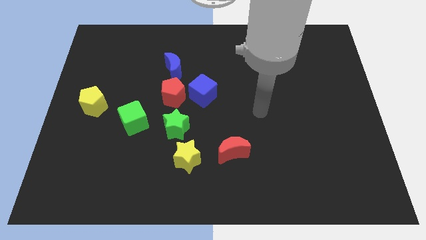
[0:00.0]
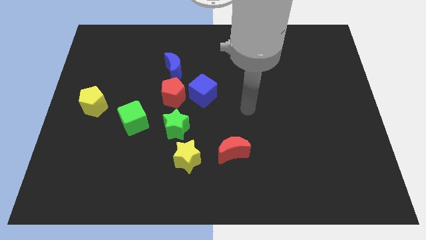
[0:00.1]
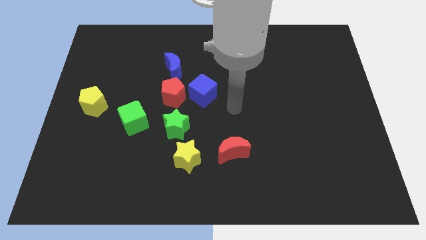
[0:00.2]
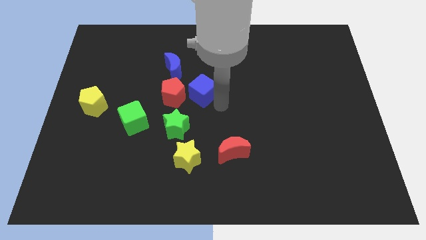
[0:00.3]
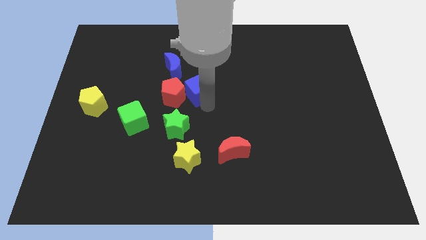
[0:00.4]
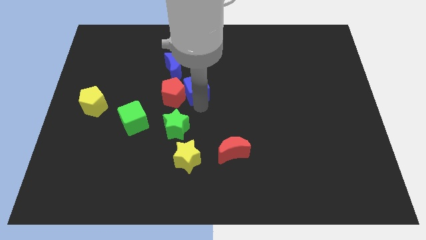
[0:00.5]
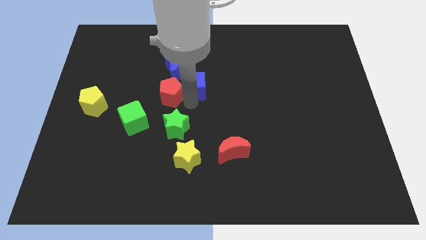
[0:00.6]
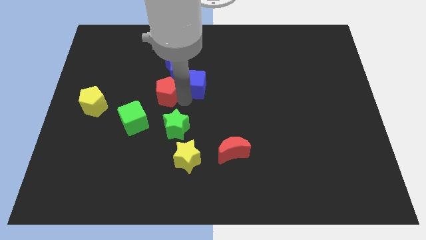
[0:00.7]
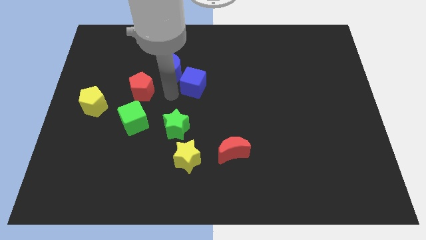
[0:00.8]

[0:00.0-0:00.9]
pull the blue cube apart from the red pentagon

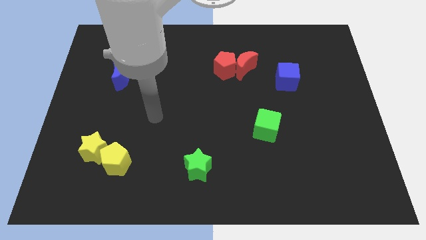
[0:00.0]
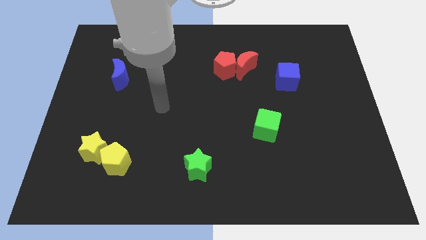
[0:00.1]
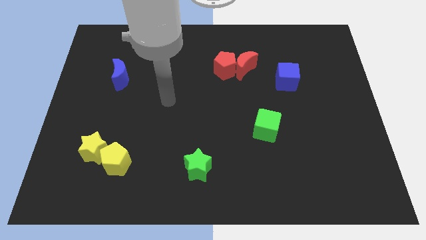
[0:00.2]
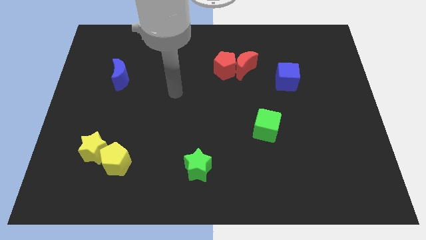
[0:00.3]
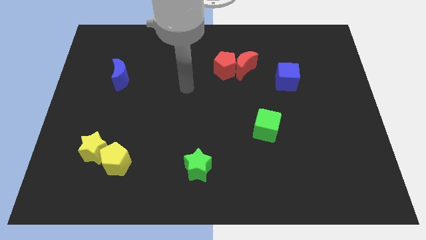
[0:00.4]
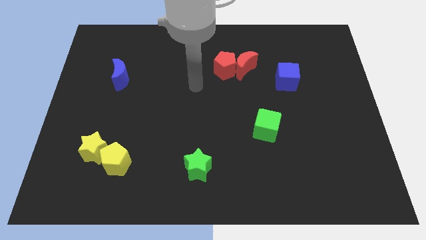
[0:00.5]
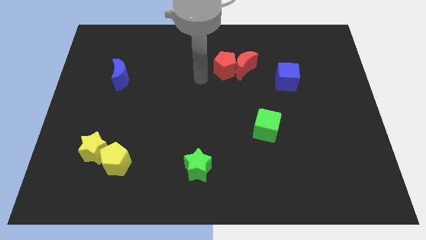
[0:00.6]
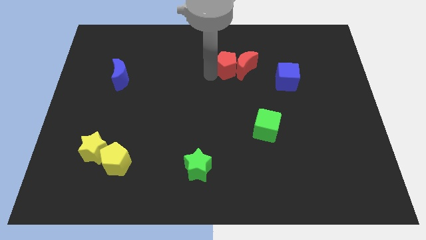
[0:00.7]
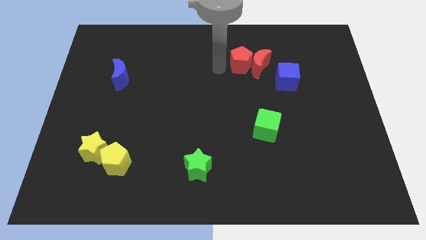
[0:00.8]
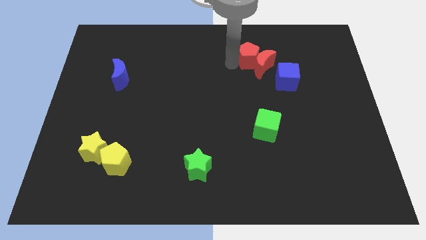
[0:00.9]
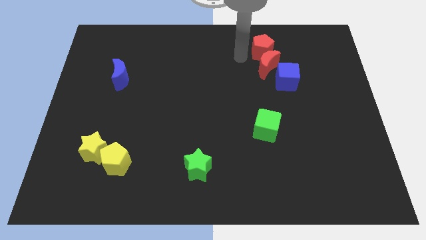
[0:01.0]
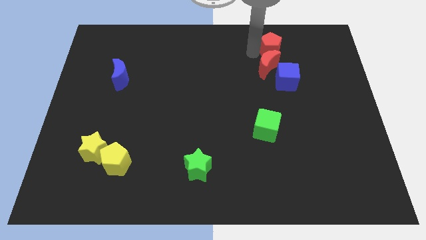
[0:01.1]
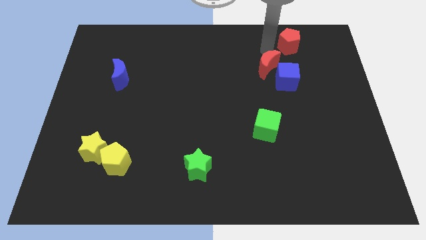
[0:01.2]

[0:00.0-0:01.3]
separate the red moon from the red pentagon

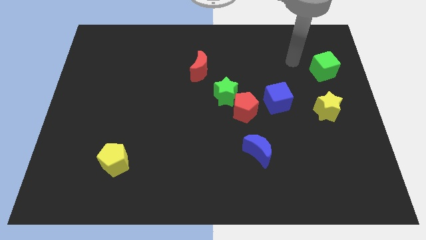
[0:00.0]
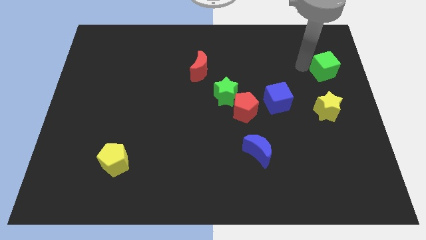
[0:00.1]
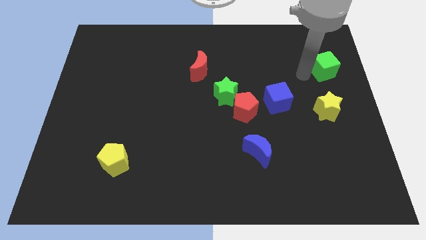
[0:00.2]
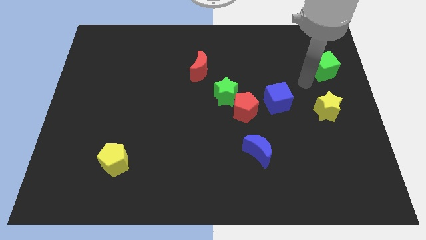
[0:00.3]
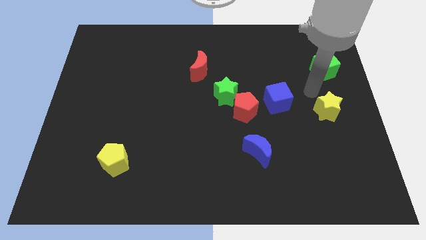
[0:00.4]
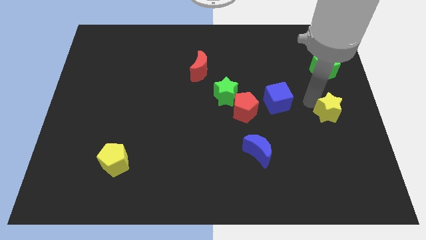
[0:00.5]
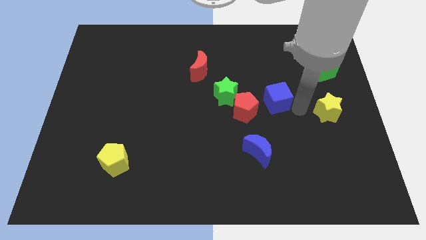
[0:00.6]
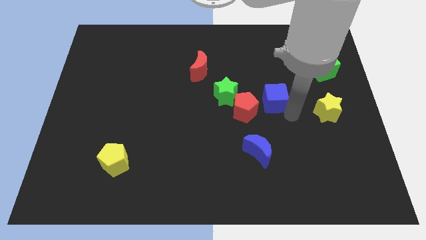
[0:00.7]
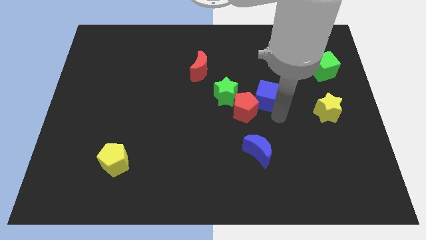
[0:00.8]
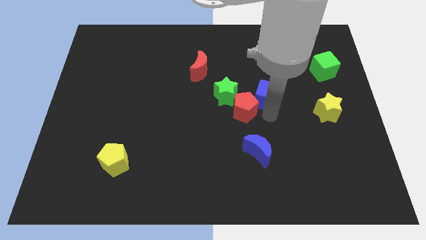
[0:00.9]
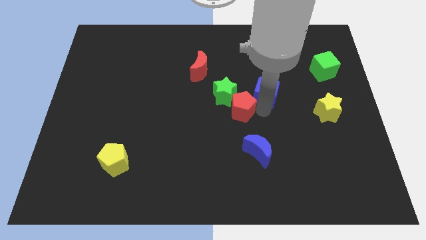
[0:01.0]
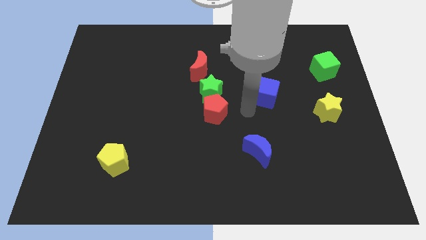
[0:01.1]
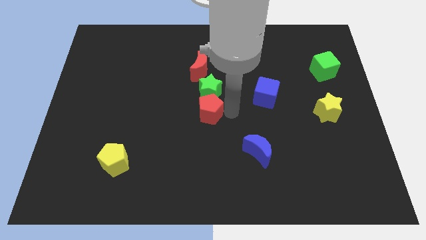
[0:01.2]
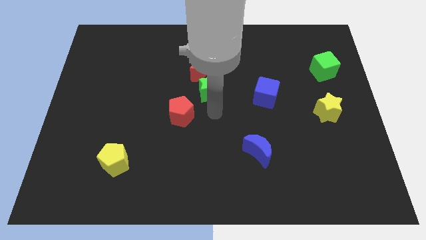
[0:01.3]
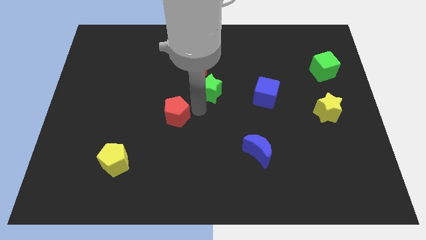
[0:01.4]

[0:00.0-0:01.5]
separate the green star from the red pentagon

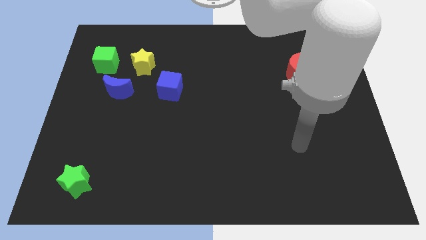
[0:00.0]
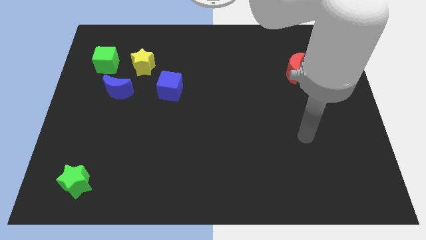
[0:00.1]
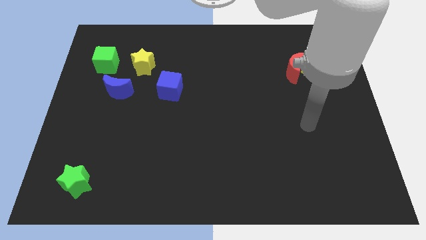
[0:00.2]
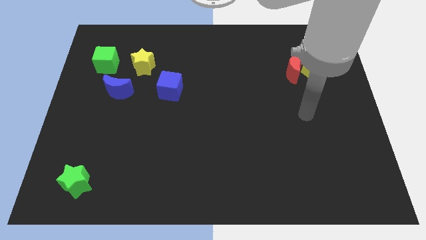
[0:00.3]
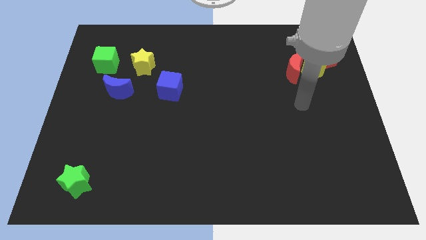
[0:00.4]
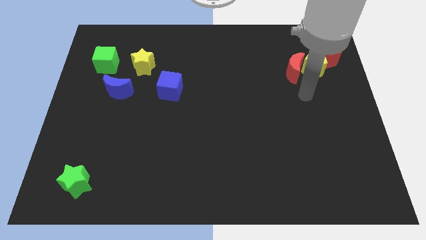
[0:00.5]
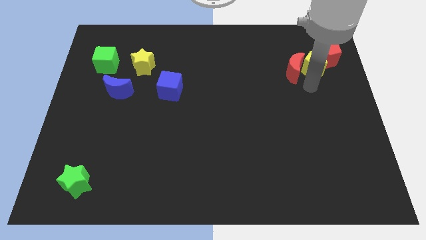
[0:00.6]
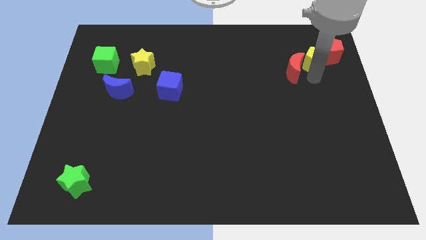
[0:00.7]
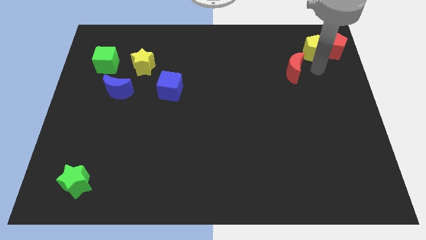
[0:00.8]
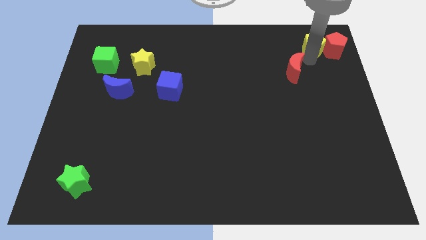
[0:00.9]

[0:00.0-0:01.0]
move the red moon away from the yellow pentagon

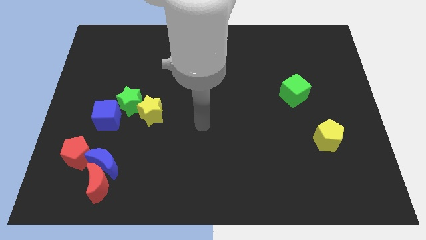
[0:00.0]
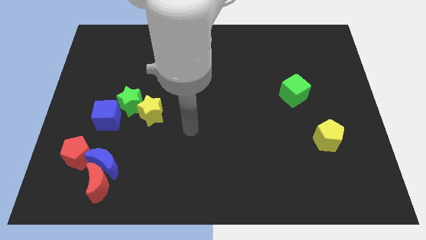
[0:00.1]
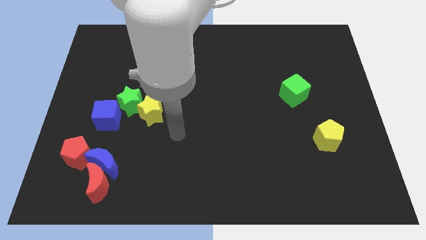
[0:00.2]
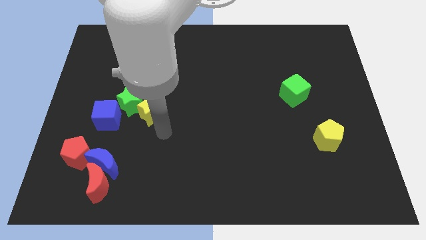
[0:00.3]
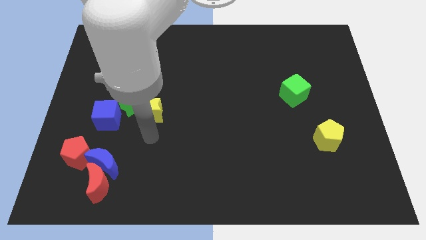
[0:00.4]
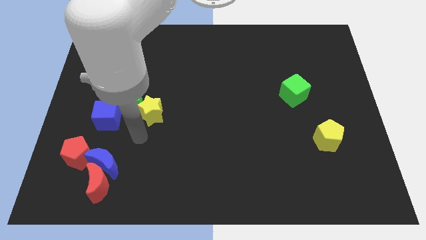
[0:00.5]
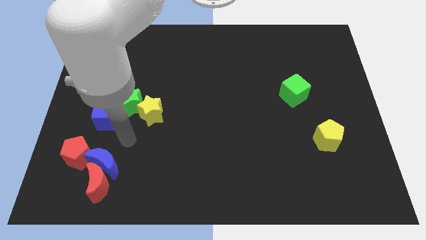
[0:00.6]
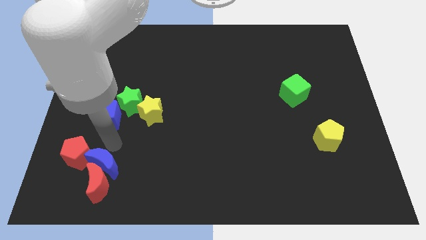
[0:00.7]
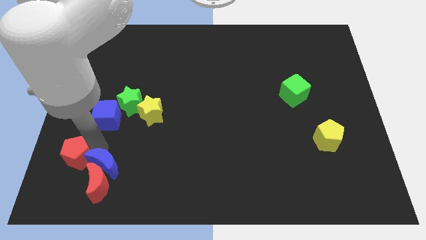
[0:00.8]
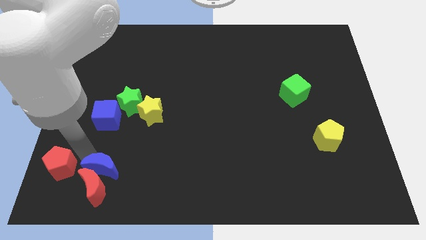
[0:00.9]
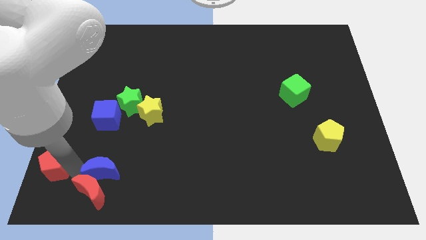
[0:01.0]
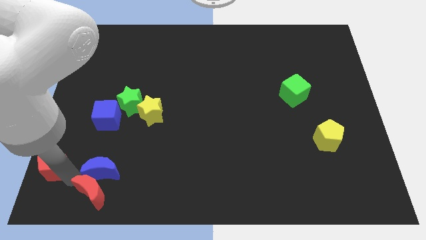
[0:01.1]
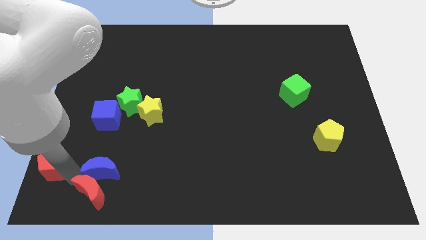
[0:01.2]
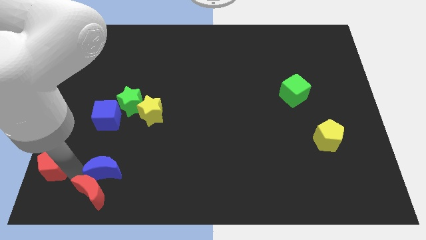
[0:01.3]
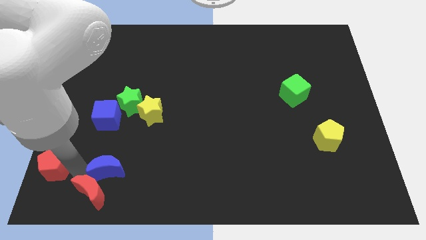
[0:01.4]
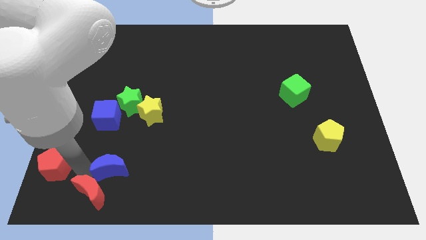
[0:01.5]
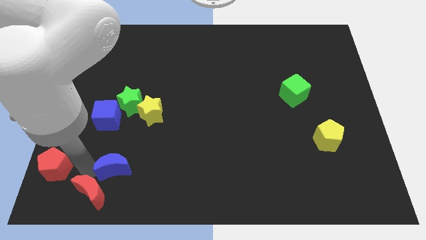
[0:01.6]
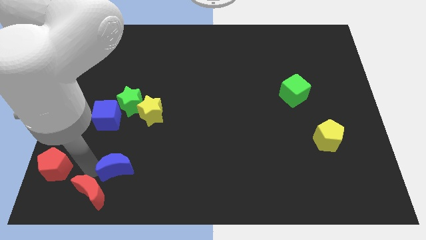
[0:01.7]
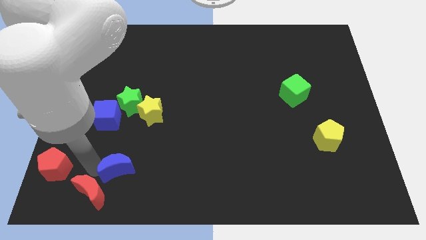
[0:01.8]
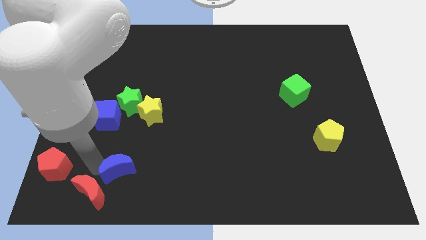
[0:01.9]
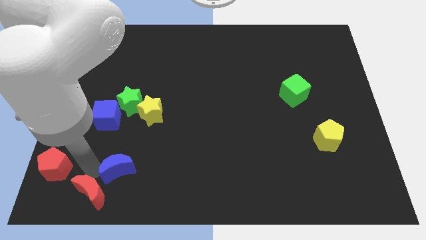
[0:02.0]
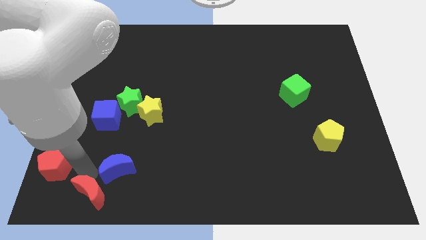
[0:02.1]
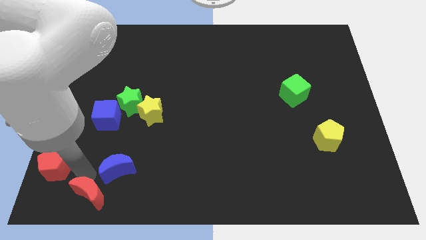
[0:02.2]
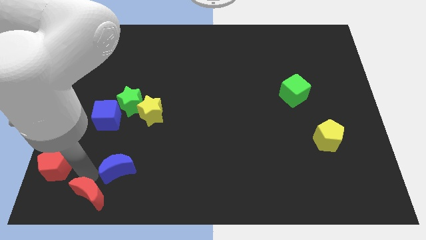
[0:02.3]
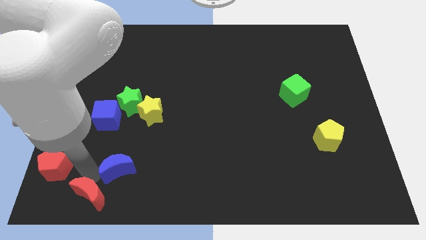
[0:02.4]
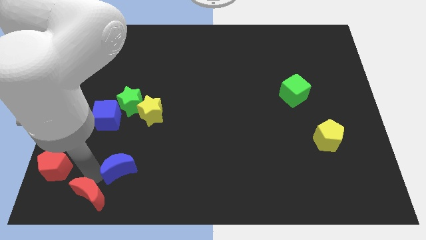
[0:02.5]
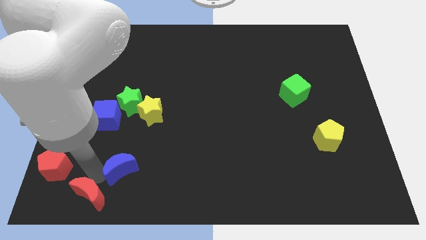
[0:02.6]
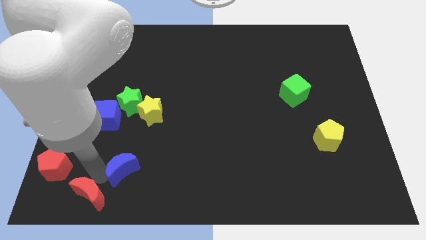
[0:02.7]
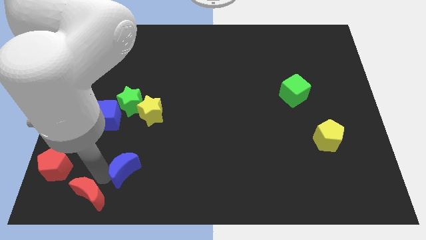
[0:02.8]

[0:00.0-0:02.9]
pull the blue moon apart from the red moon and red pentagon

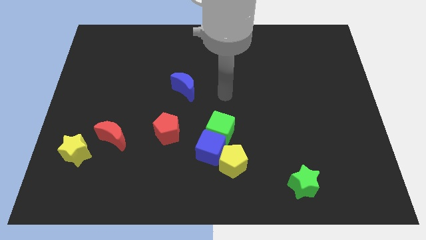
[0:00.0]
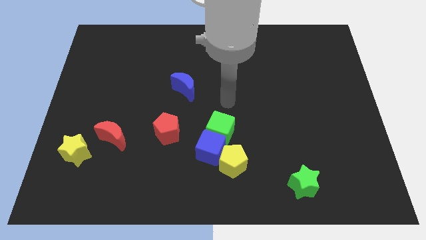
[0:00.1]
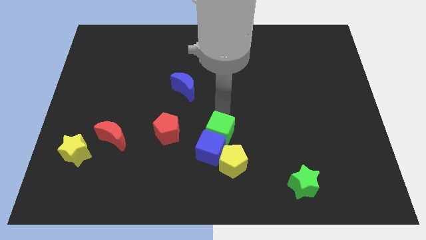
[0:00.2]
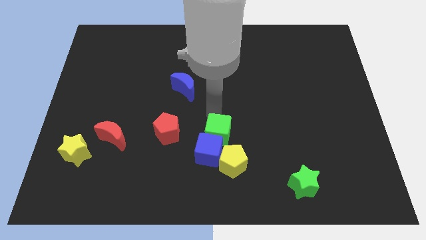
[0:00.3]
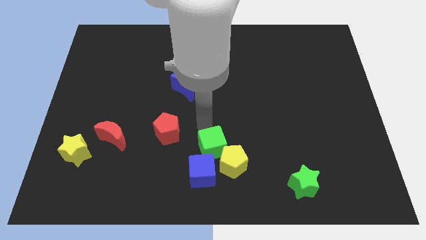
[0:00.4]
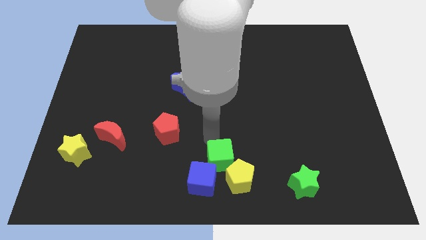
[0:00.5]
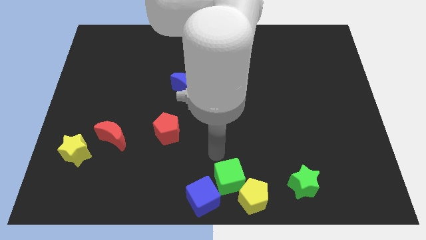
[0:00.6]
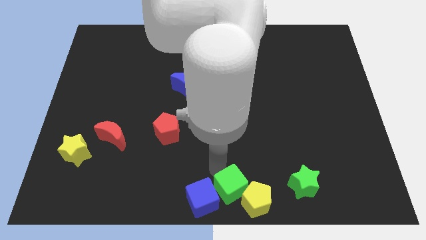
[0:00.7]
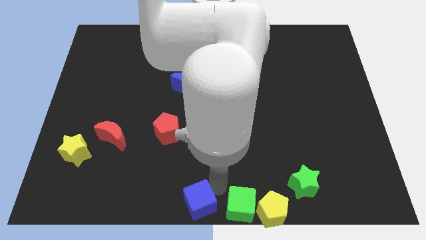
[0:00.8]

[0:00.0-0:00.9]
separate the blue cube from the green cube and yellow pentagon

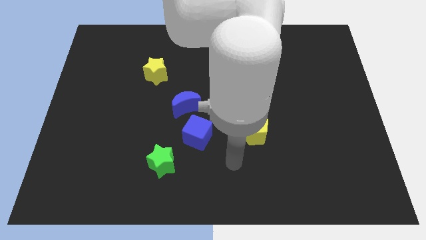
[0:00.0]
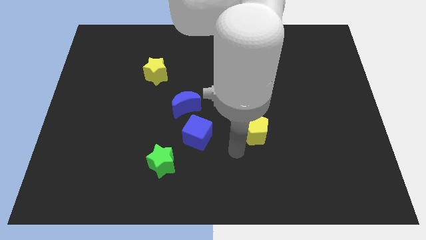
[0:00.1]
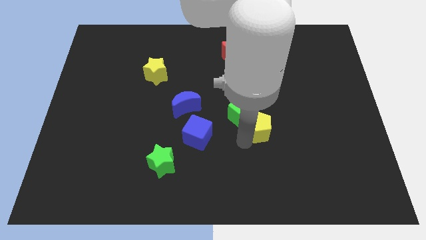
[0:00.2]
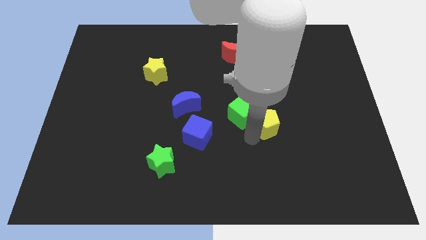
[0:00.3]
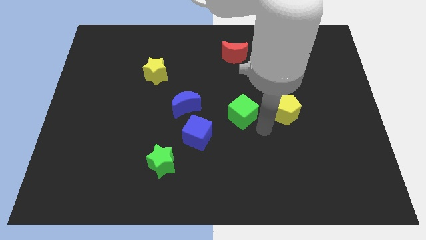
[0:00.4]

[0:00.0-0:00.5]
separate the green cube from the yellow pentagon

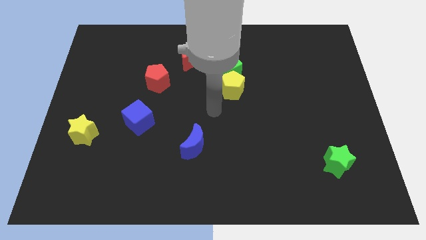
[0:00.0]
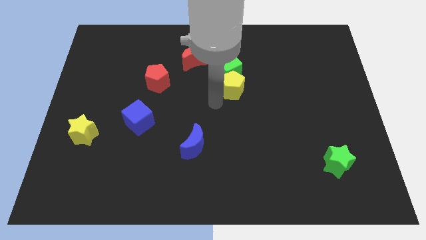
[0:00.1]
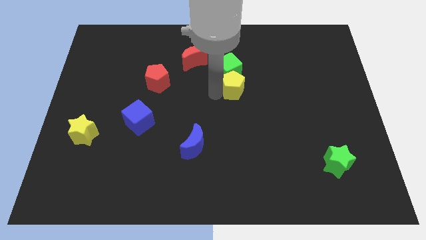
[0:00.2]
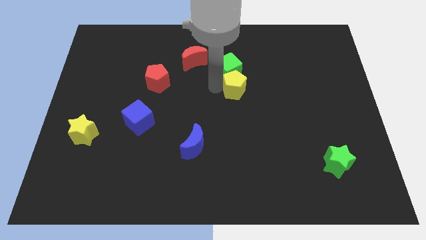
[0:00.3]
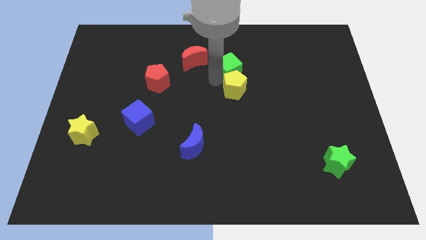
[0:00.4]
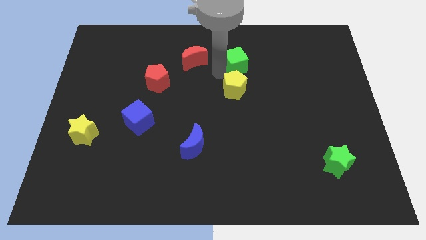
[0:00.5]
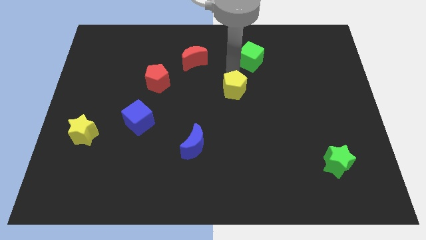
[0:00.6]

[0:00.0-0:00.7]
separate the yellow pentagon from the green cube
